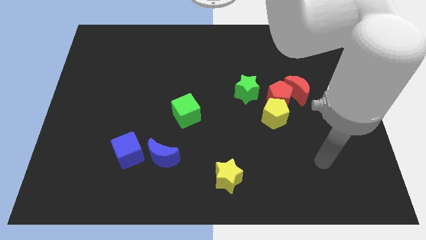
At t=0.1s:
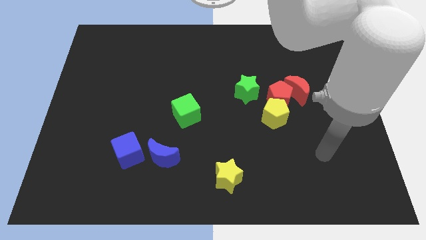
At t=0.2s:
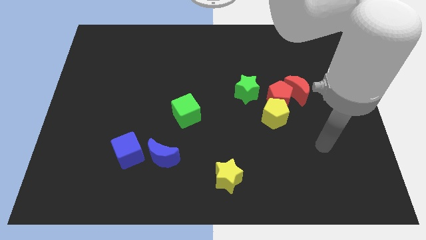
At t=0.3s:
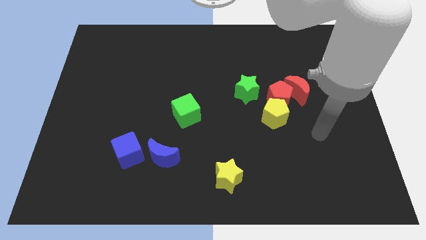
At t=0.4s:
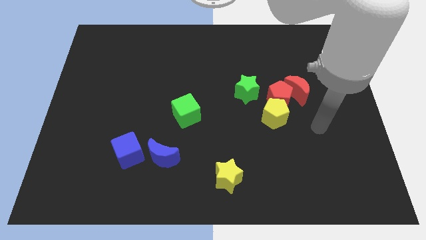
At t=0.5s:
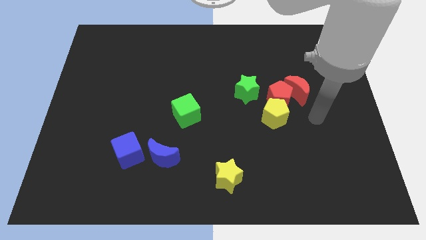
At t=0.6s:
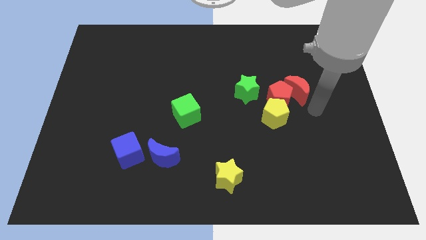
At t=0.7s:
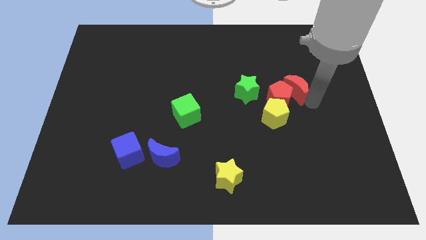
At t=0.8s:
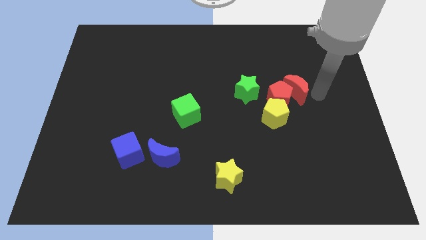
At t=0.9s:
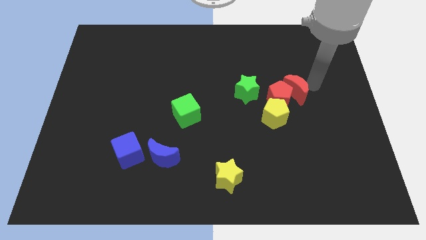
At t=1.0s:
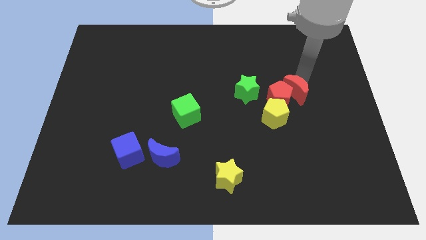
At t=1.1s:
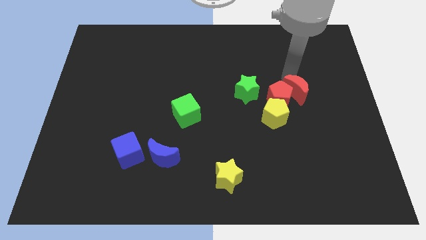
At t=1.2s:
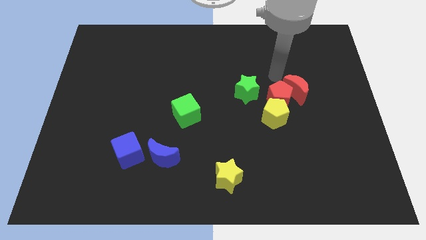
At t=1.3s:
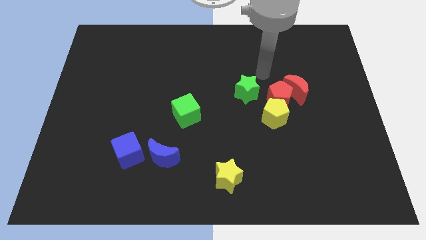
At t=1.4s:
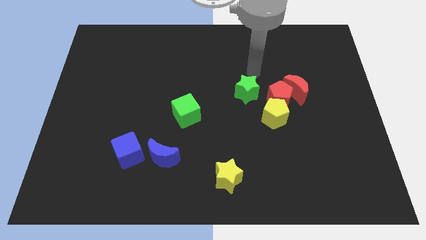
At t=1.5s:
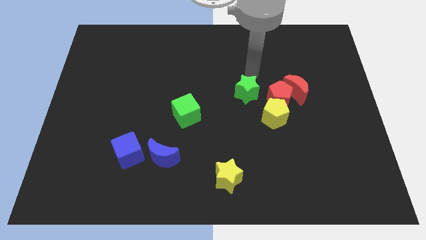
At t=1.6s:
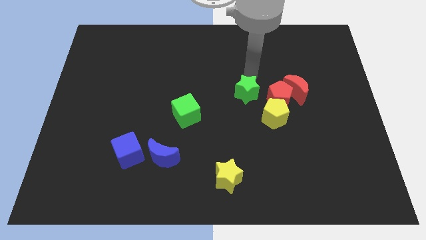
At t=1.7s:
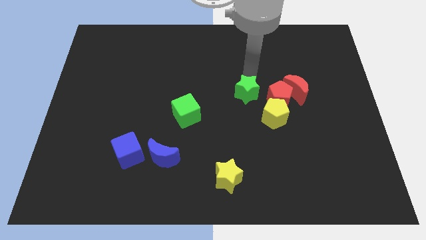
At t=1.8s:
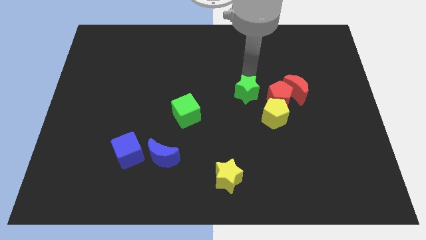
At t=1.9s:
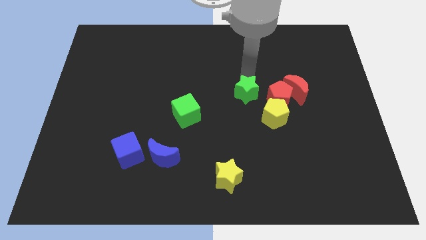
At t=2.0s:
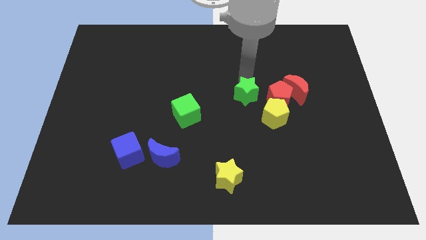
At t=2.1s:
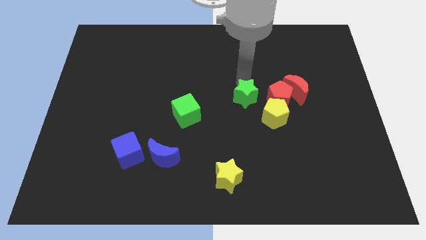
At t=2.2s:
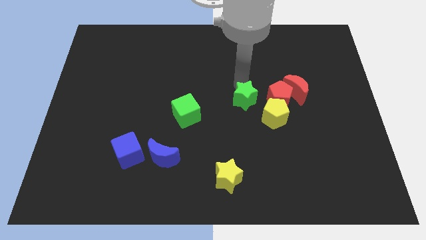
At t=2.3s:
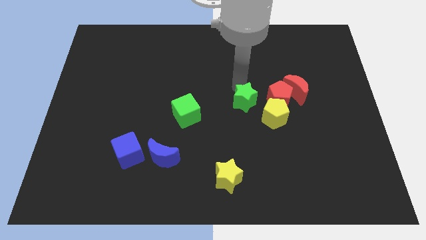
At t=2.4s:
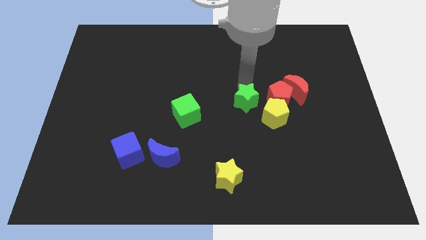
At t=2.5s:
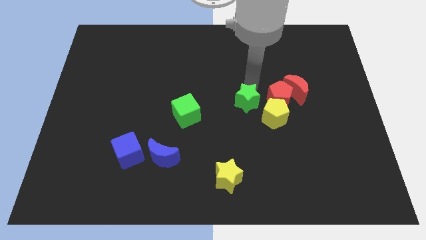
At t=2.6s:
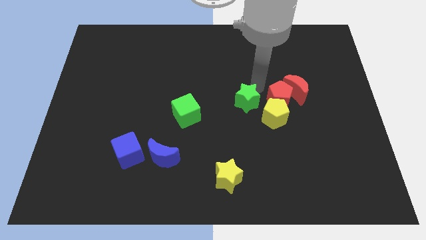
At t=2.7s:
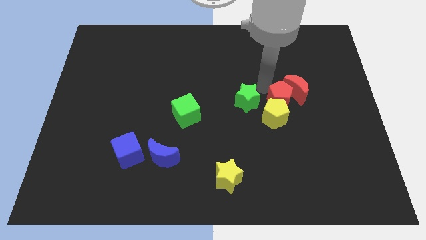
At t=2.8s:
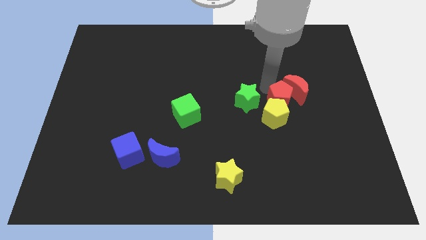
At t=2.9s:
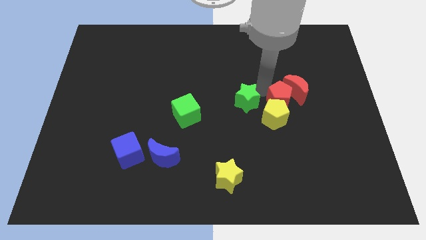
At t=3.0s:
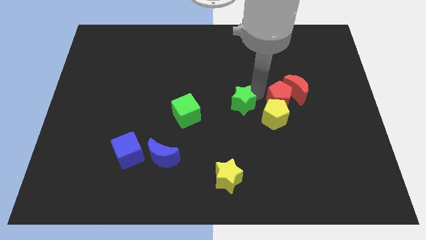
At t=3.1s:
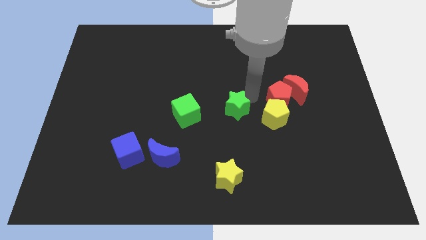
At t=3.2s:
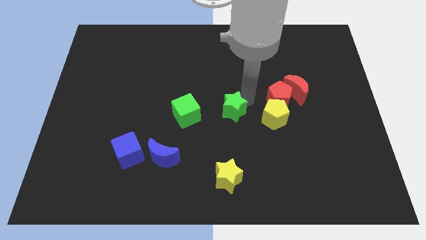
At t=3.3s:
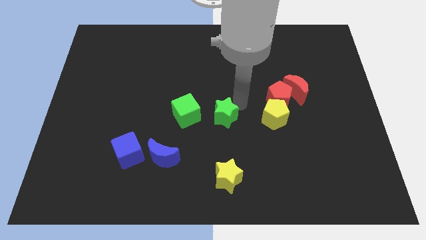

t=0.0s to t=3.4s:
slide the green star slightly downwards and then left

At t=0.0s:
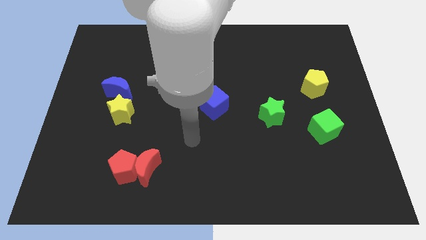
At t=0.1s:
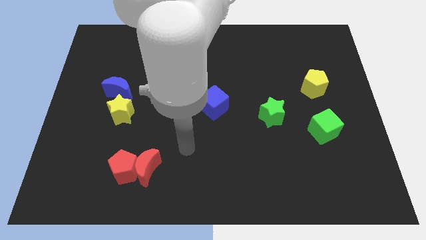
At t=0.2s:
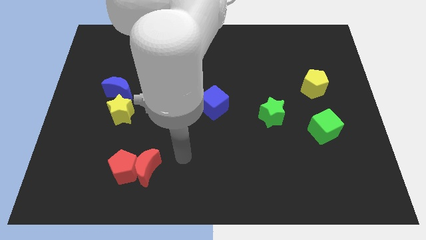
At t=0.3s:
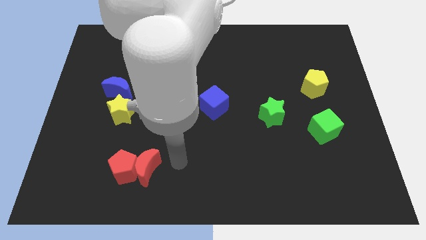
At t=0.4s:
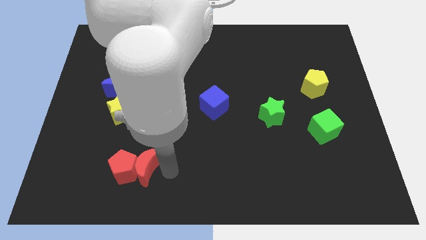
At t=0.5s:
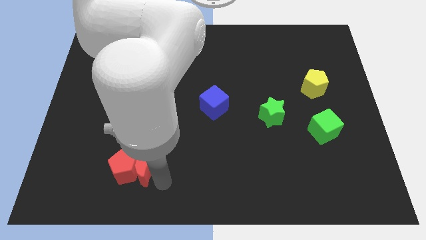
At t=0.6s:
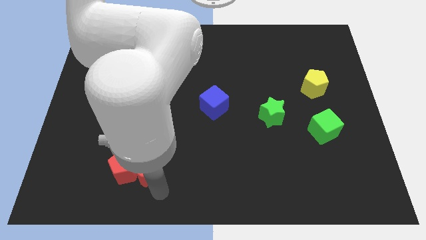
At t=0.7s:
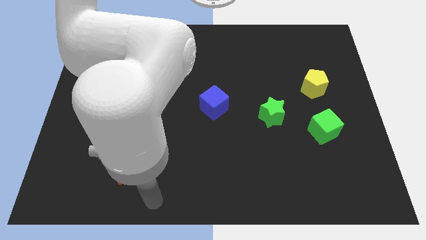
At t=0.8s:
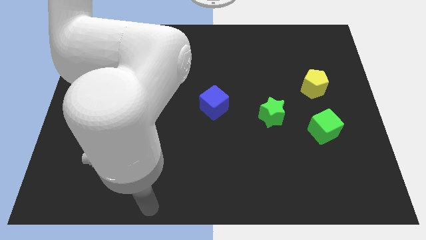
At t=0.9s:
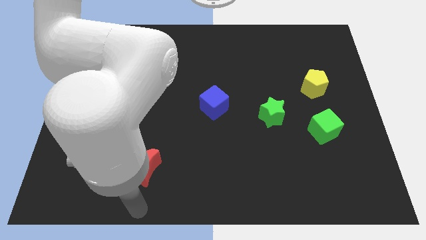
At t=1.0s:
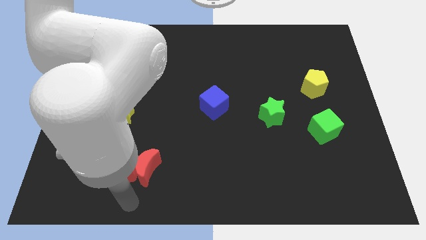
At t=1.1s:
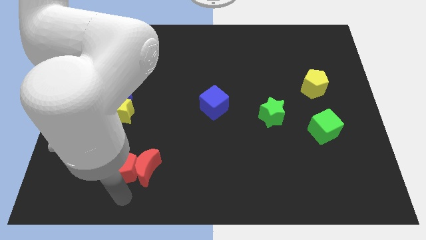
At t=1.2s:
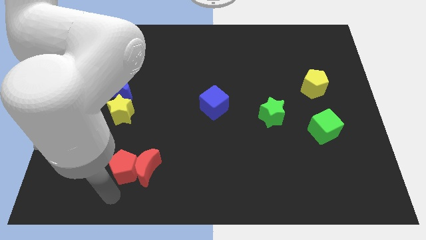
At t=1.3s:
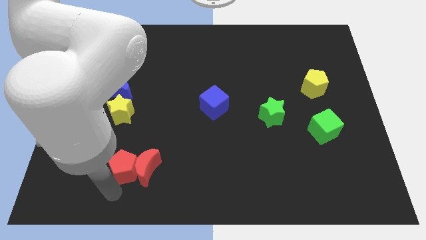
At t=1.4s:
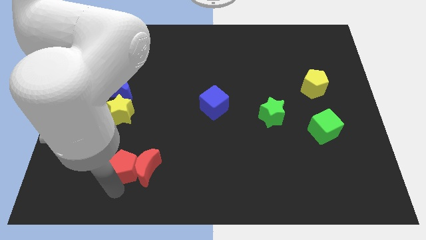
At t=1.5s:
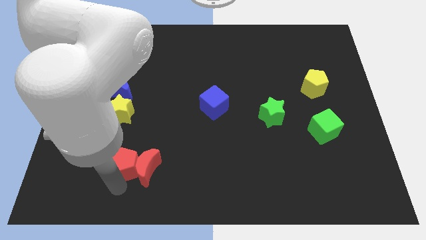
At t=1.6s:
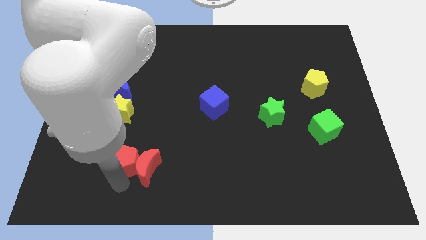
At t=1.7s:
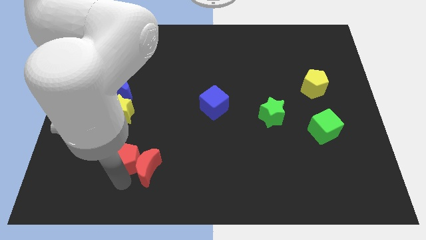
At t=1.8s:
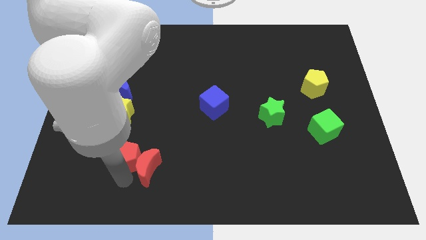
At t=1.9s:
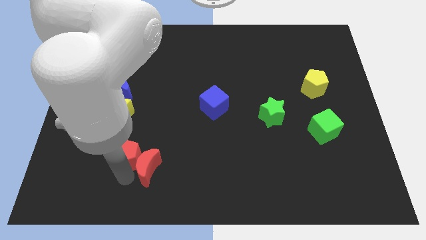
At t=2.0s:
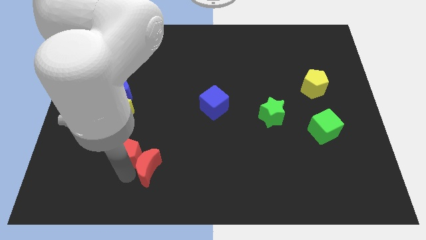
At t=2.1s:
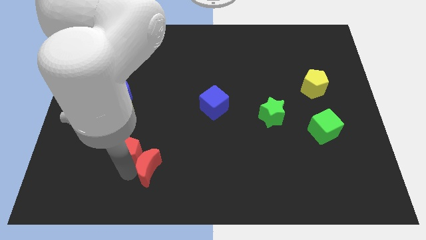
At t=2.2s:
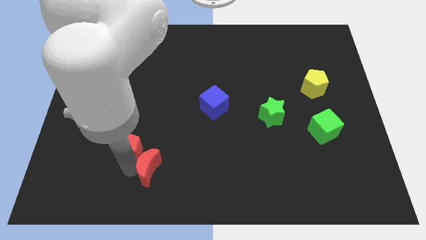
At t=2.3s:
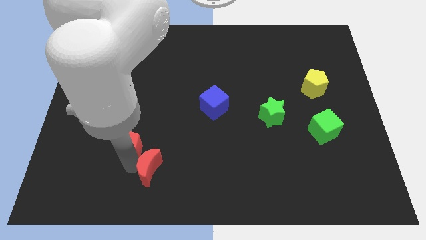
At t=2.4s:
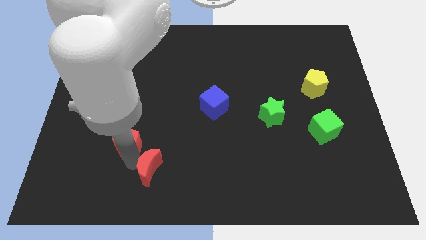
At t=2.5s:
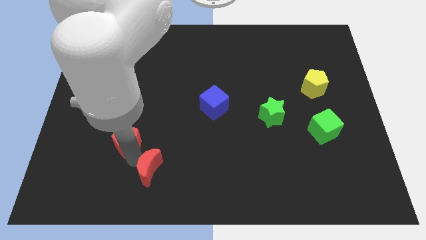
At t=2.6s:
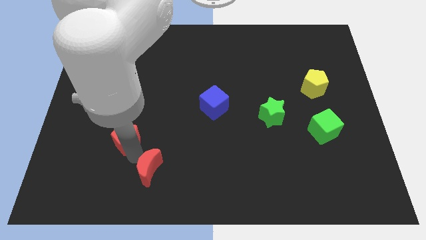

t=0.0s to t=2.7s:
slide the red pentagon slightly upwards

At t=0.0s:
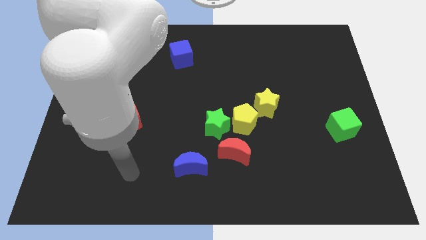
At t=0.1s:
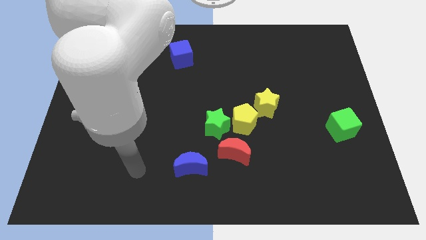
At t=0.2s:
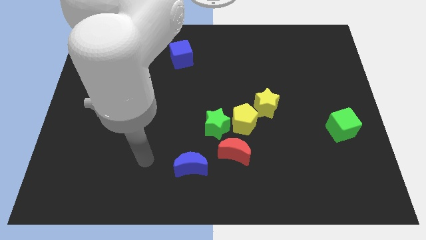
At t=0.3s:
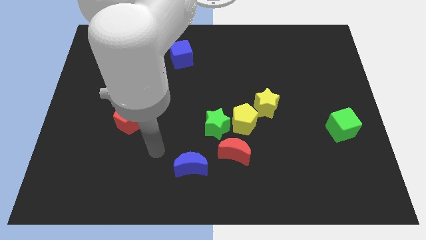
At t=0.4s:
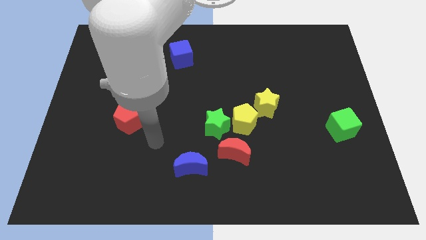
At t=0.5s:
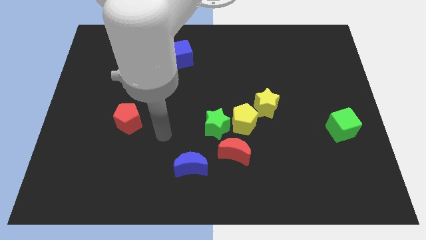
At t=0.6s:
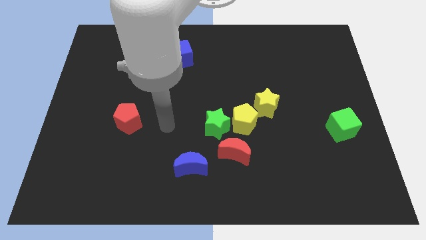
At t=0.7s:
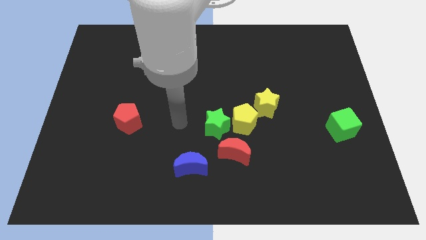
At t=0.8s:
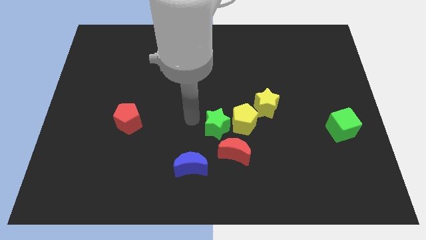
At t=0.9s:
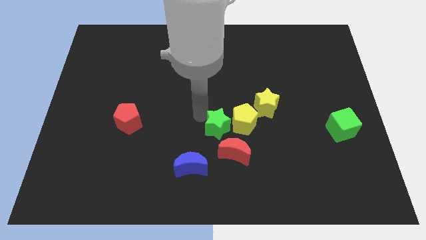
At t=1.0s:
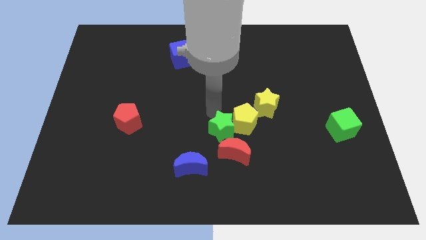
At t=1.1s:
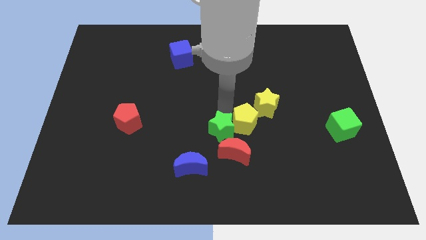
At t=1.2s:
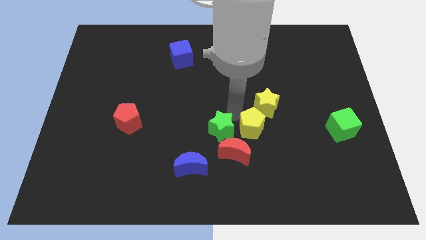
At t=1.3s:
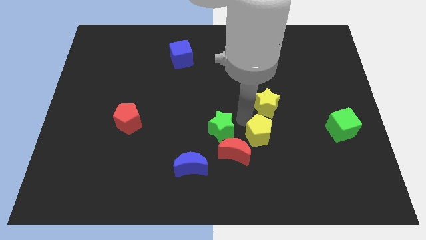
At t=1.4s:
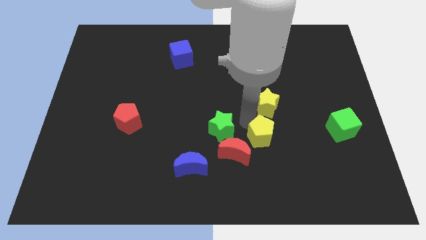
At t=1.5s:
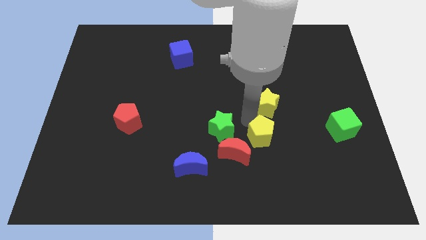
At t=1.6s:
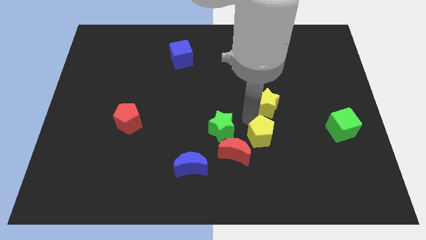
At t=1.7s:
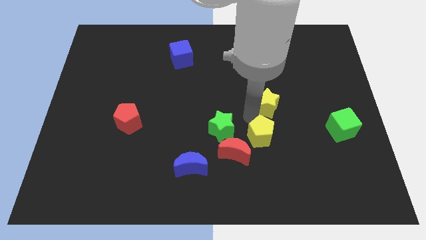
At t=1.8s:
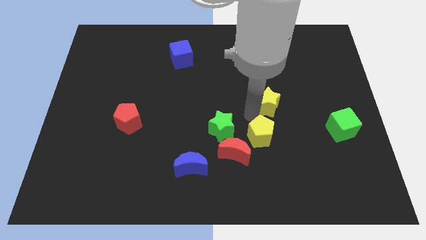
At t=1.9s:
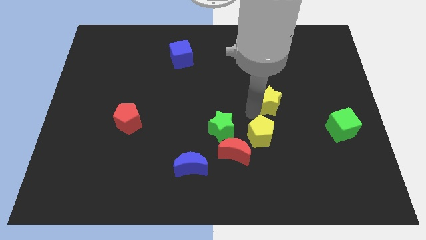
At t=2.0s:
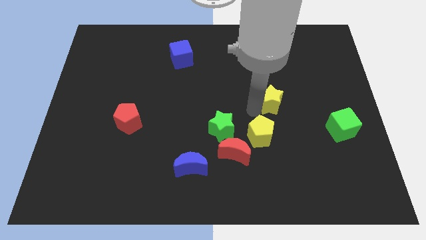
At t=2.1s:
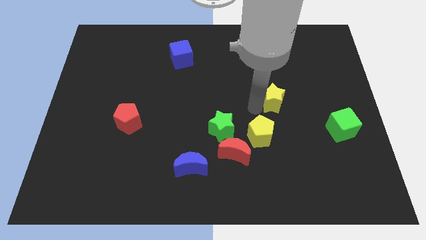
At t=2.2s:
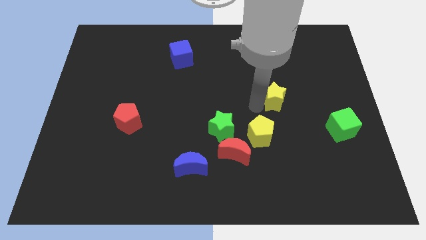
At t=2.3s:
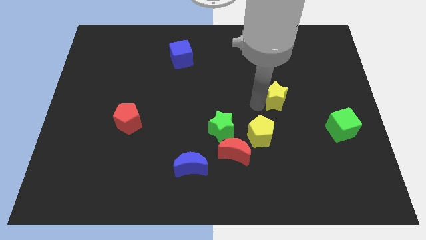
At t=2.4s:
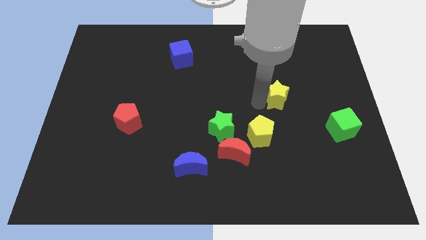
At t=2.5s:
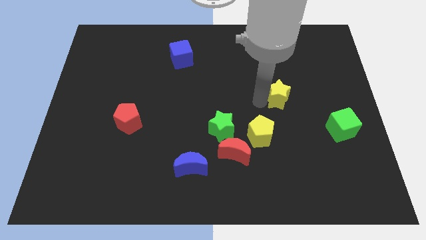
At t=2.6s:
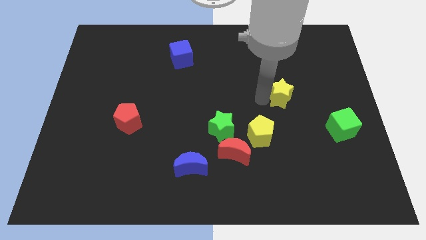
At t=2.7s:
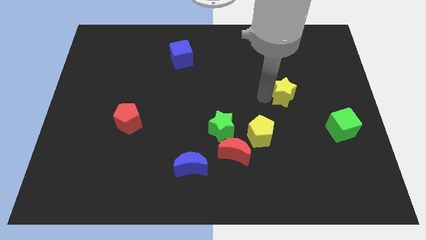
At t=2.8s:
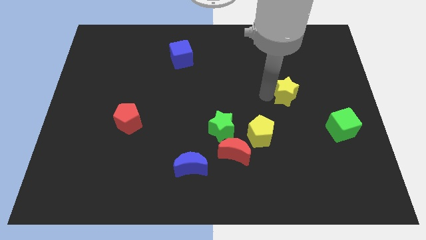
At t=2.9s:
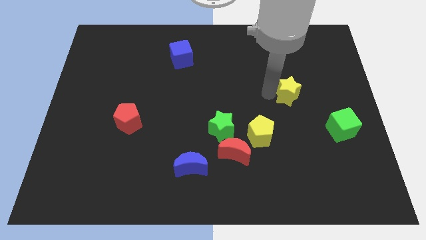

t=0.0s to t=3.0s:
push the yellow star up and right diagonally a little
